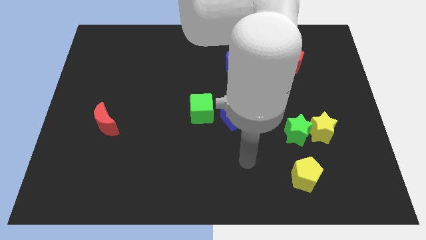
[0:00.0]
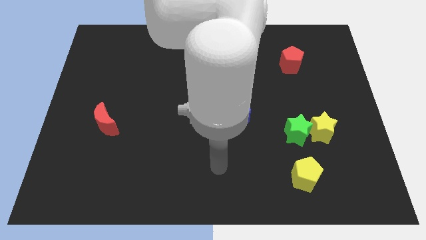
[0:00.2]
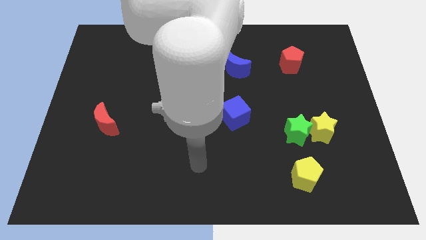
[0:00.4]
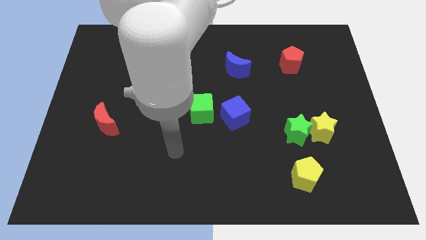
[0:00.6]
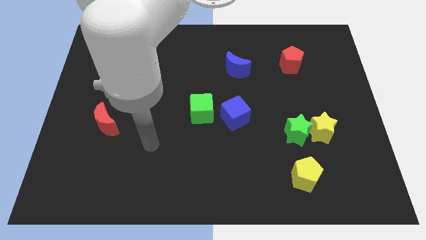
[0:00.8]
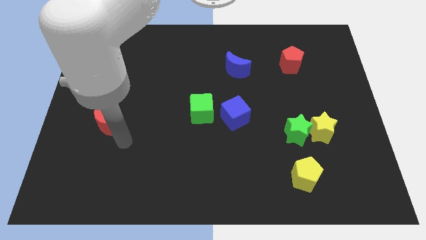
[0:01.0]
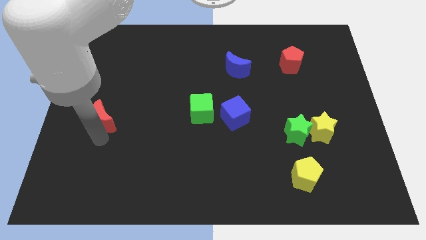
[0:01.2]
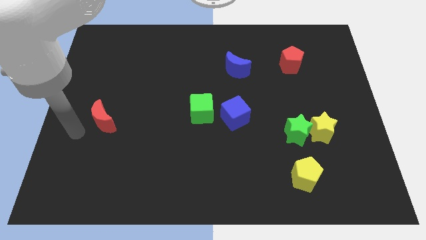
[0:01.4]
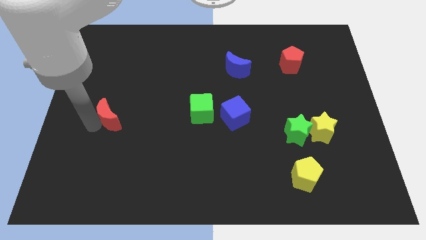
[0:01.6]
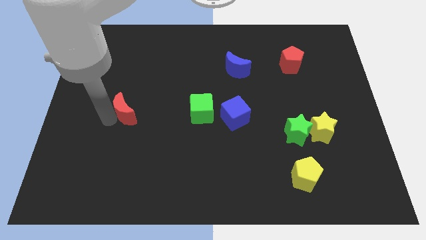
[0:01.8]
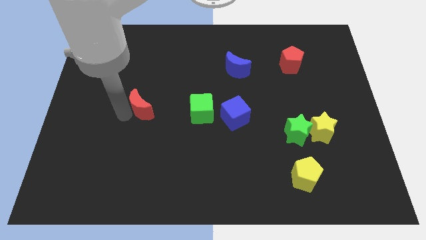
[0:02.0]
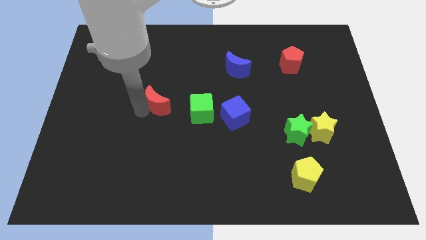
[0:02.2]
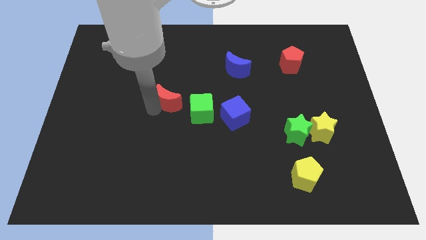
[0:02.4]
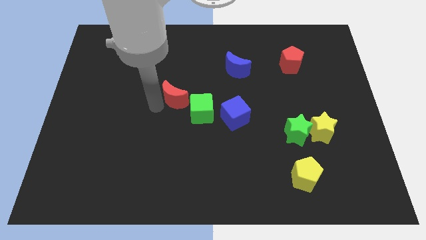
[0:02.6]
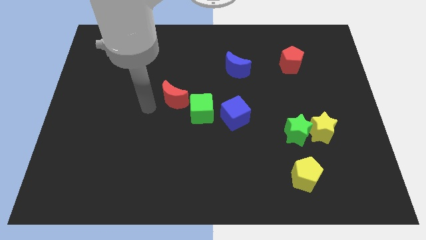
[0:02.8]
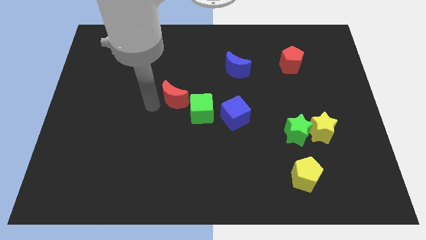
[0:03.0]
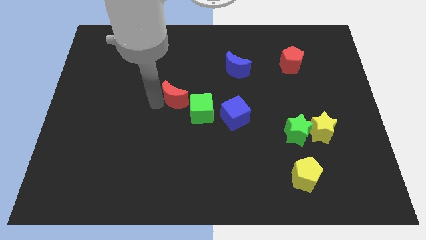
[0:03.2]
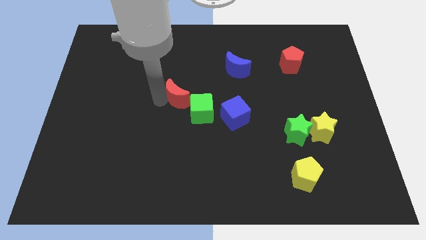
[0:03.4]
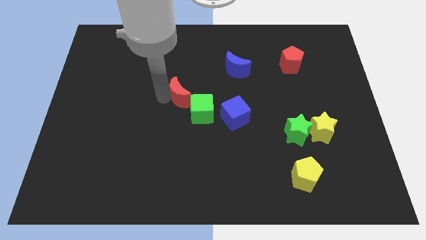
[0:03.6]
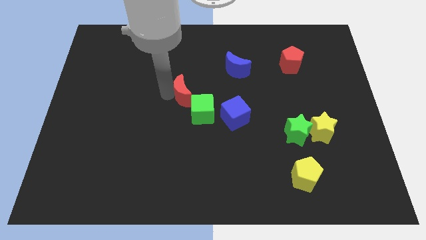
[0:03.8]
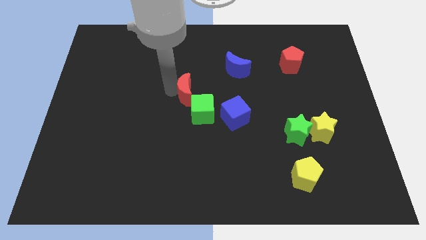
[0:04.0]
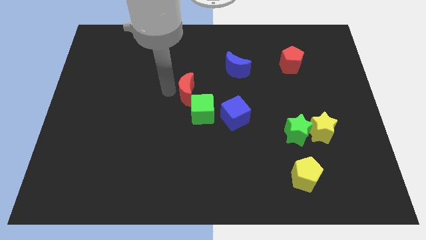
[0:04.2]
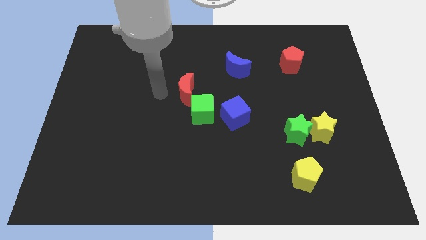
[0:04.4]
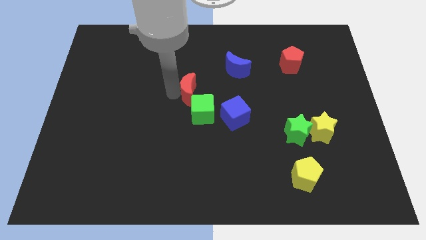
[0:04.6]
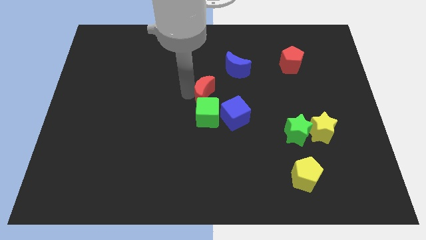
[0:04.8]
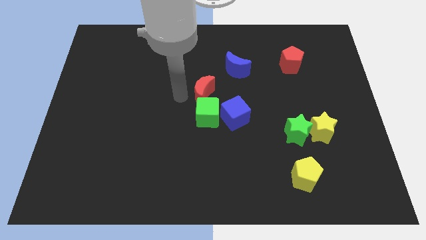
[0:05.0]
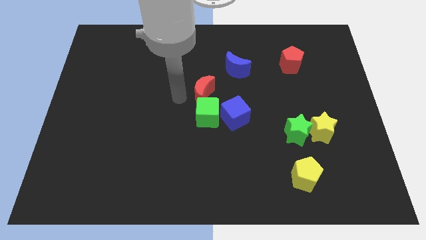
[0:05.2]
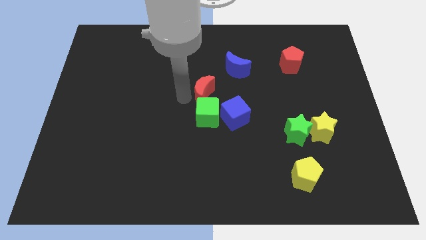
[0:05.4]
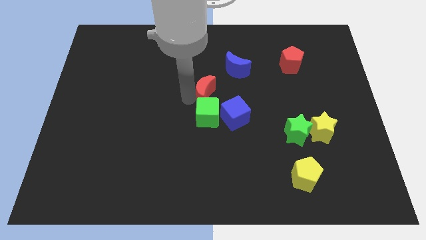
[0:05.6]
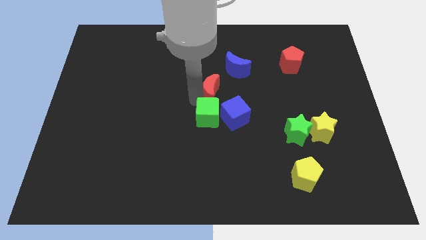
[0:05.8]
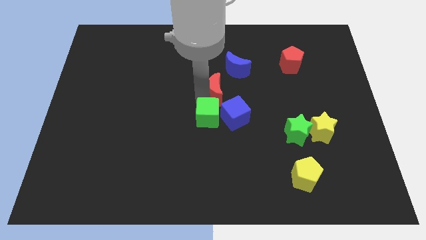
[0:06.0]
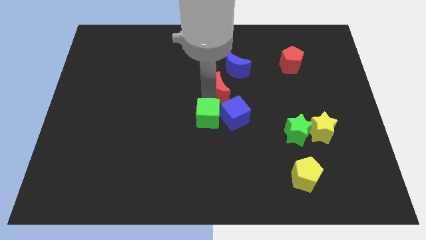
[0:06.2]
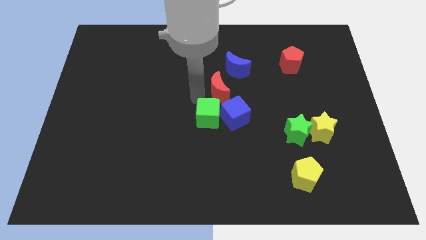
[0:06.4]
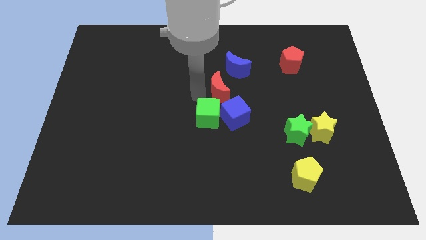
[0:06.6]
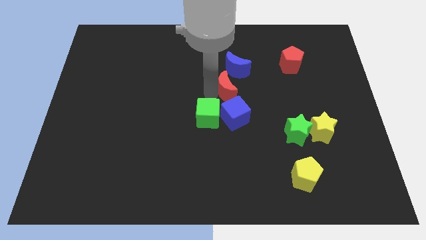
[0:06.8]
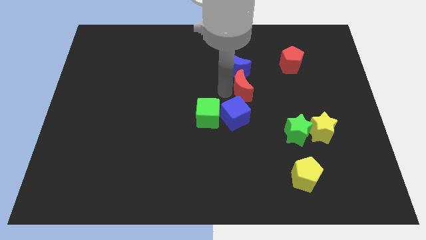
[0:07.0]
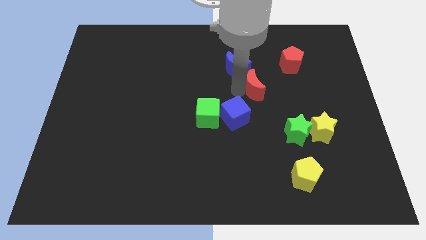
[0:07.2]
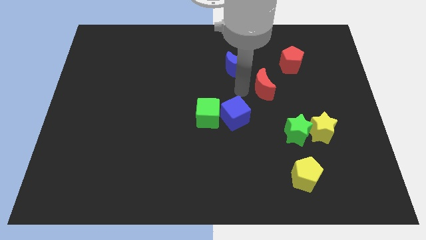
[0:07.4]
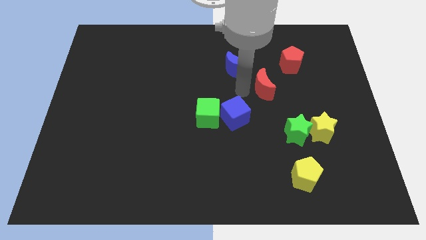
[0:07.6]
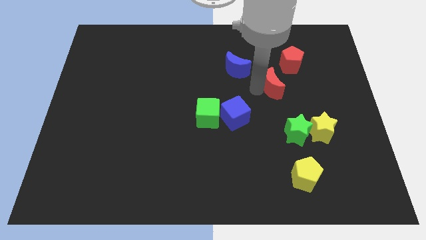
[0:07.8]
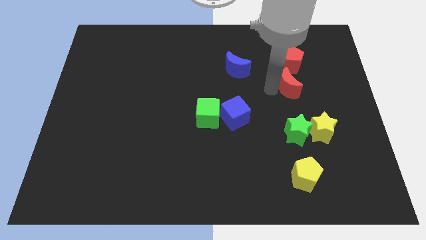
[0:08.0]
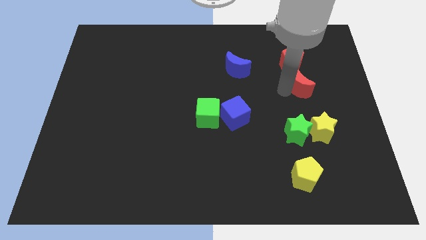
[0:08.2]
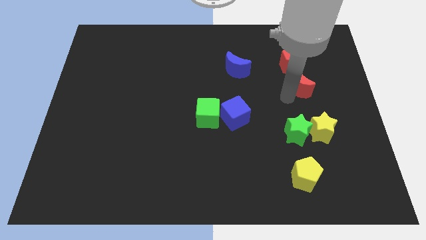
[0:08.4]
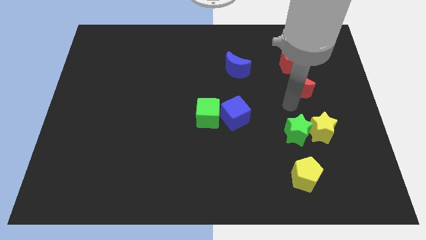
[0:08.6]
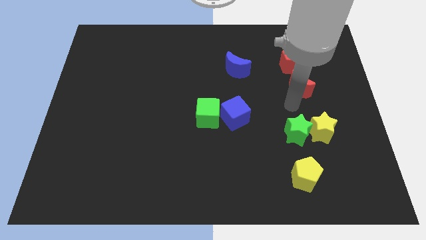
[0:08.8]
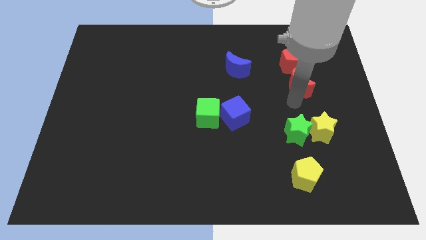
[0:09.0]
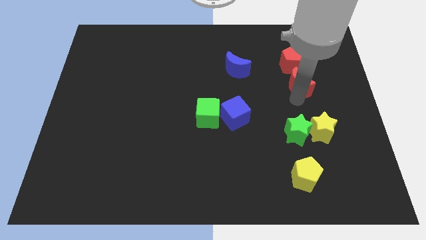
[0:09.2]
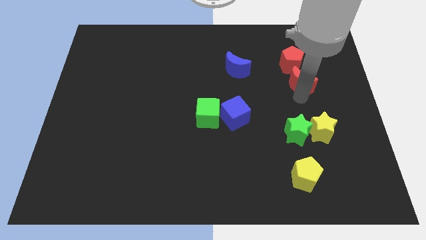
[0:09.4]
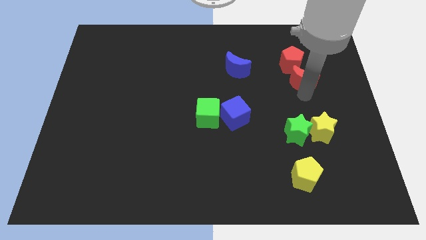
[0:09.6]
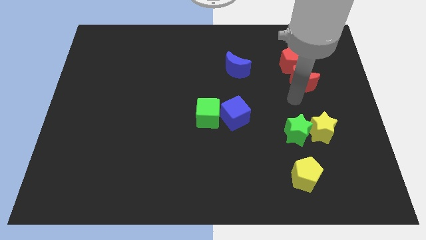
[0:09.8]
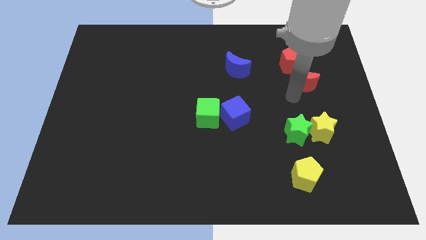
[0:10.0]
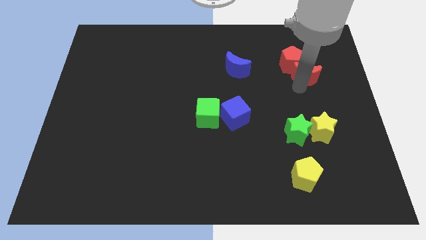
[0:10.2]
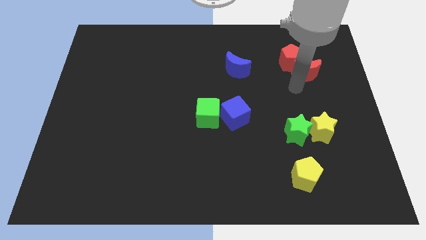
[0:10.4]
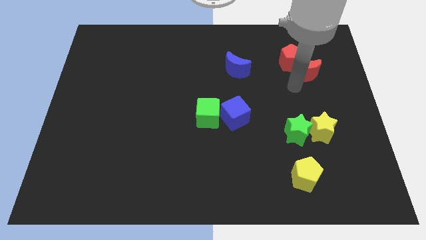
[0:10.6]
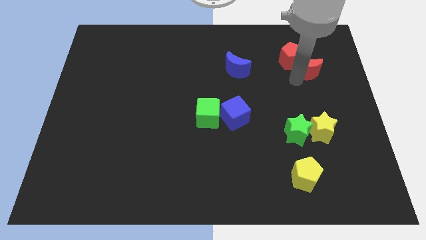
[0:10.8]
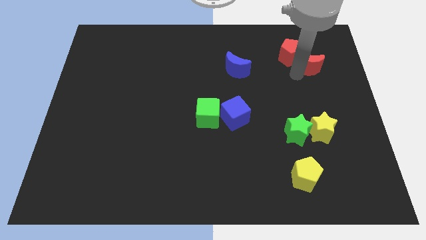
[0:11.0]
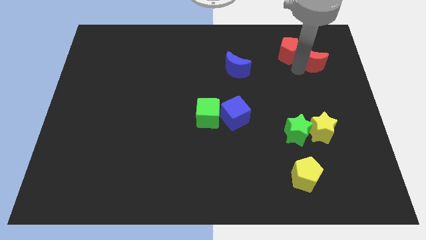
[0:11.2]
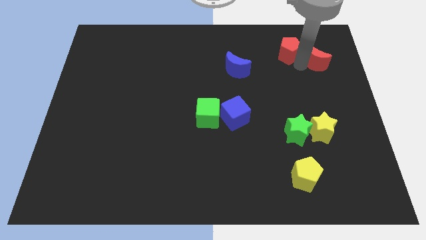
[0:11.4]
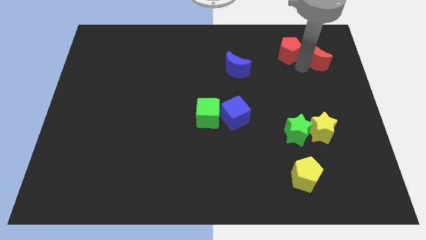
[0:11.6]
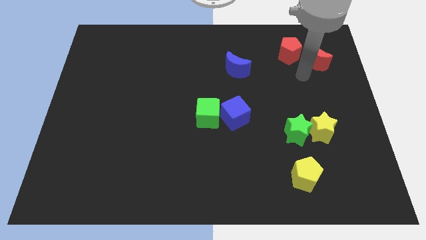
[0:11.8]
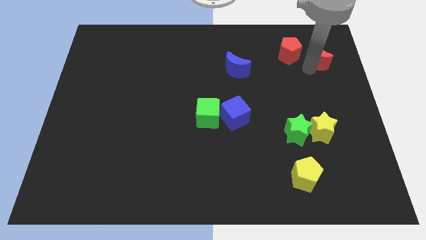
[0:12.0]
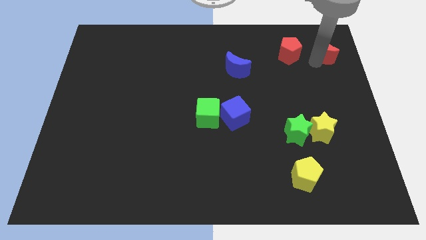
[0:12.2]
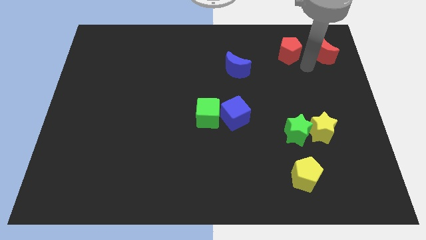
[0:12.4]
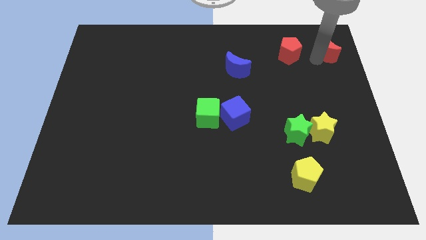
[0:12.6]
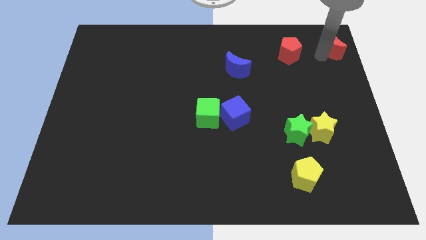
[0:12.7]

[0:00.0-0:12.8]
slide the red moon to the upper right corner
